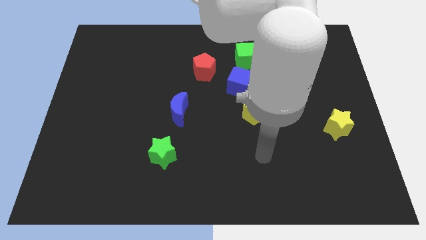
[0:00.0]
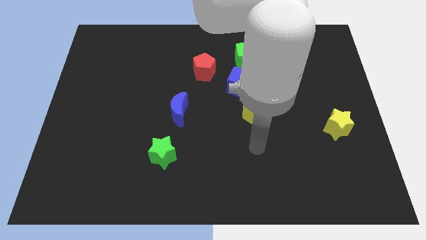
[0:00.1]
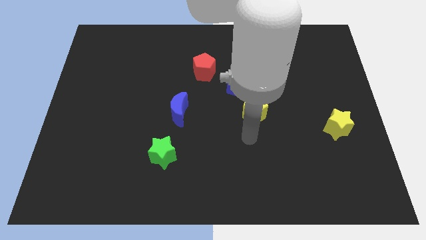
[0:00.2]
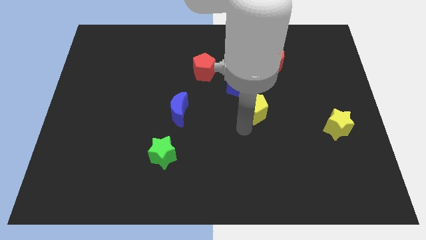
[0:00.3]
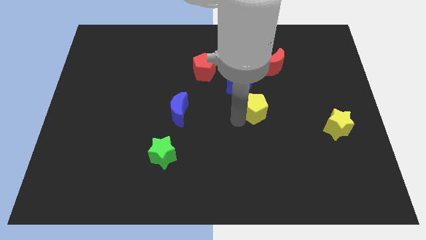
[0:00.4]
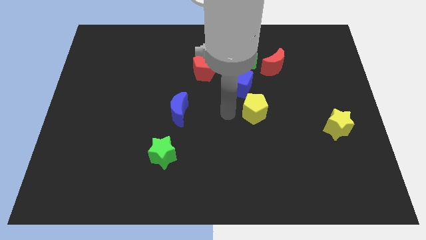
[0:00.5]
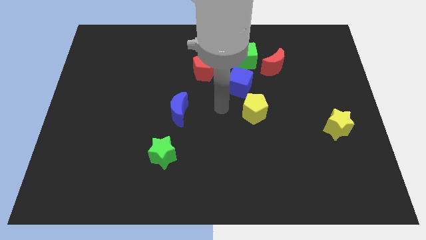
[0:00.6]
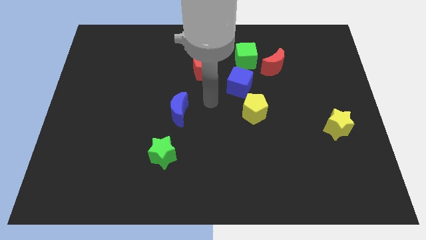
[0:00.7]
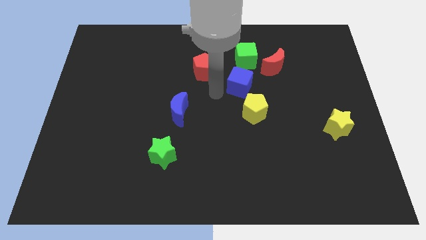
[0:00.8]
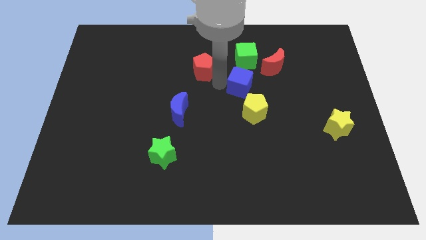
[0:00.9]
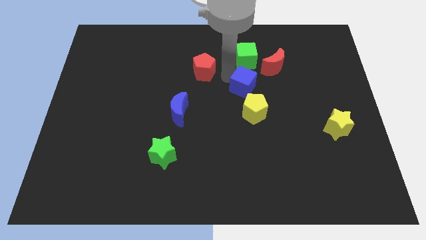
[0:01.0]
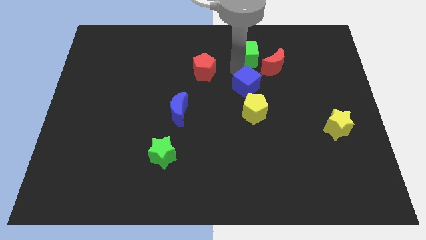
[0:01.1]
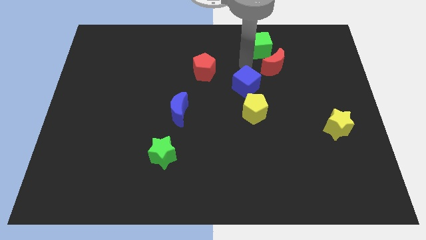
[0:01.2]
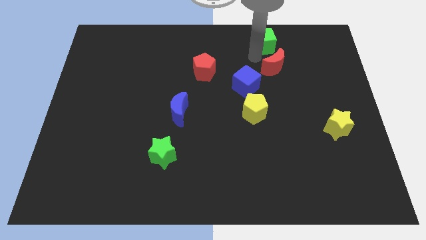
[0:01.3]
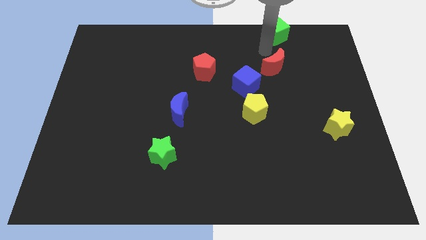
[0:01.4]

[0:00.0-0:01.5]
separate the red moon from the green cube

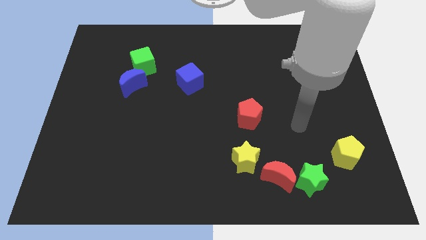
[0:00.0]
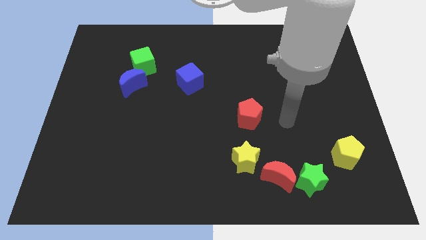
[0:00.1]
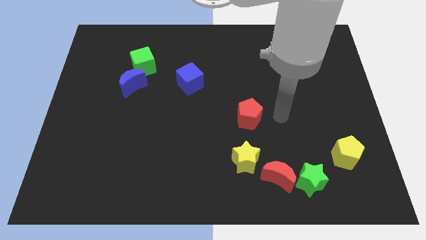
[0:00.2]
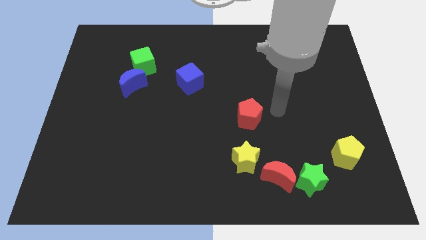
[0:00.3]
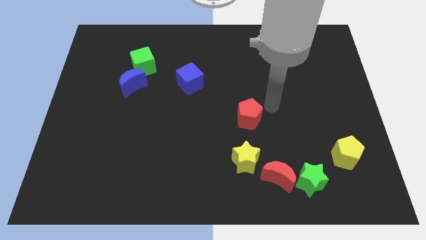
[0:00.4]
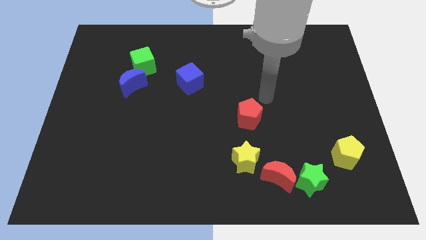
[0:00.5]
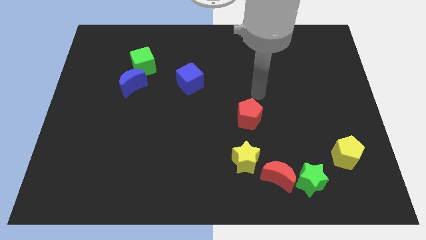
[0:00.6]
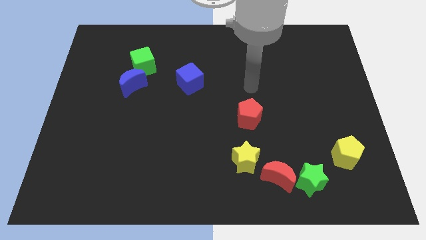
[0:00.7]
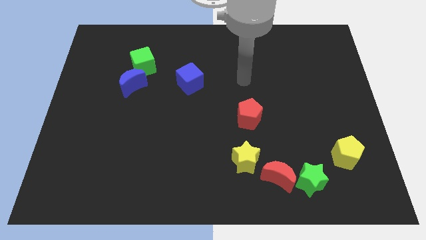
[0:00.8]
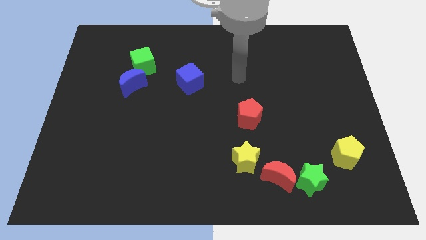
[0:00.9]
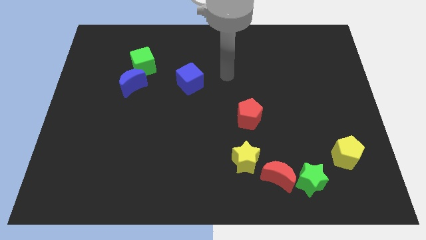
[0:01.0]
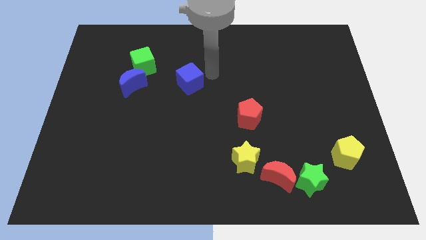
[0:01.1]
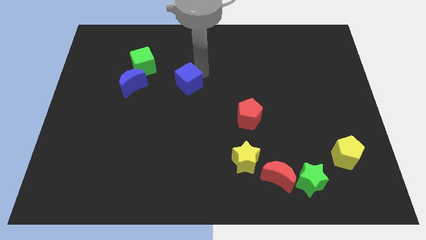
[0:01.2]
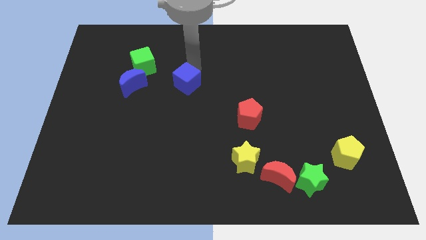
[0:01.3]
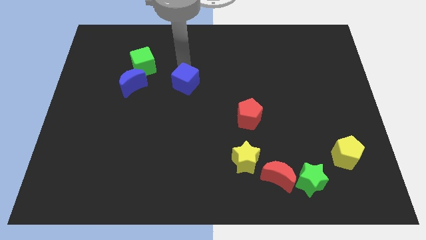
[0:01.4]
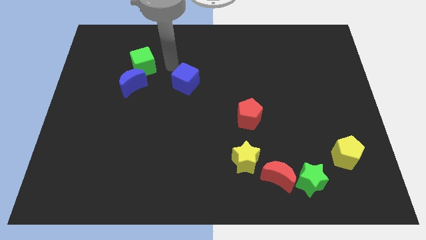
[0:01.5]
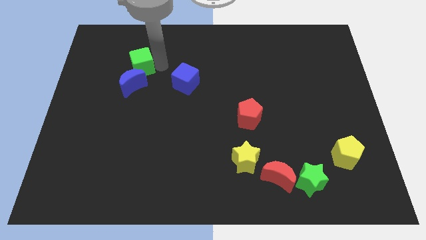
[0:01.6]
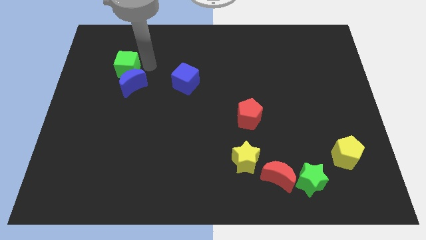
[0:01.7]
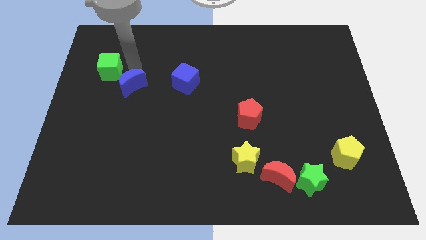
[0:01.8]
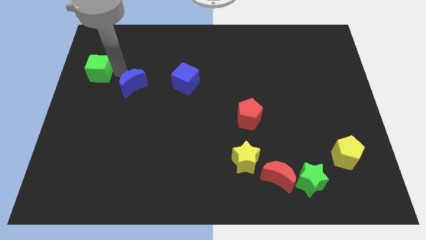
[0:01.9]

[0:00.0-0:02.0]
pull the blue moon apart from the green cube

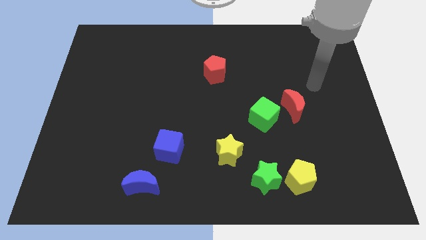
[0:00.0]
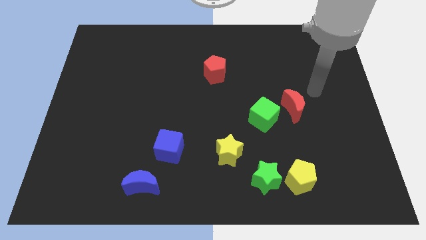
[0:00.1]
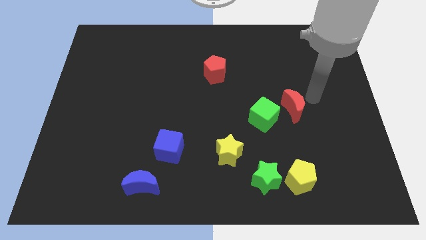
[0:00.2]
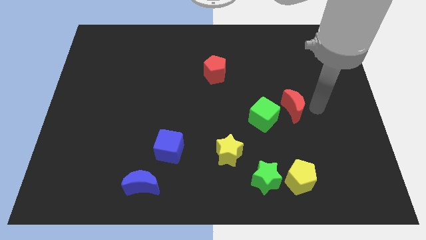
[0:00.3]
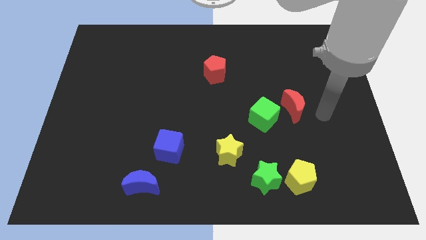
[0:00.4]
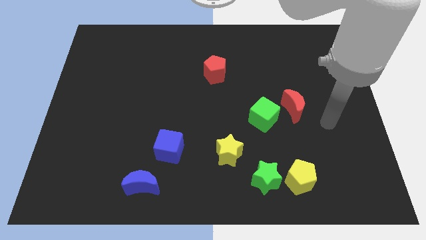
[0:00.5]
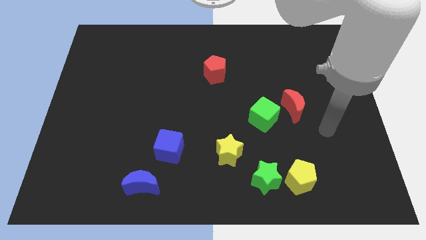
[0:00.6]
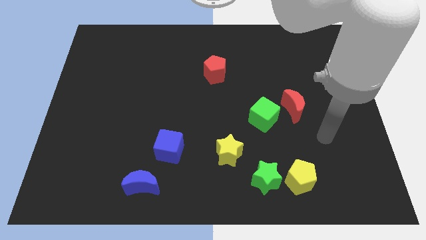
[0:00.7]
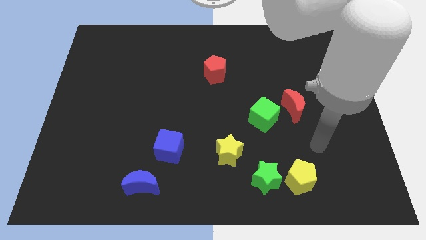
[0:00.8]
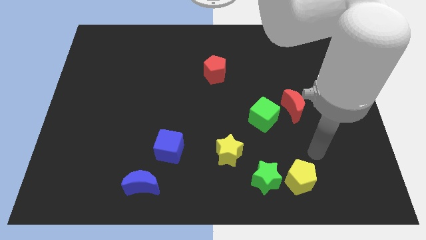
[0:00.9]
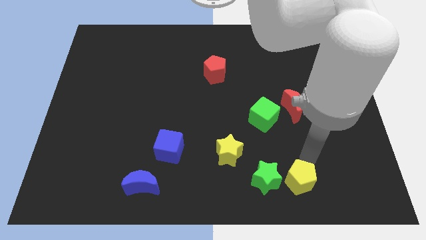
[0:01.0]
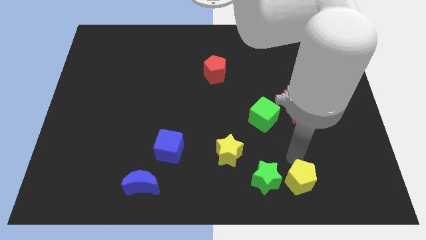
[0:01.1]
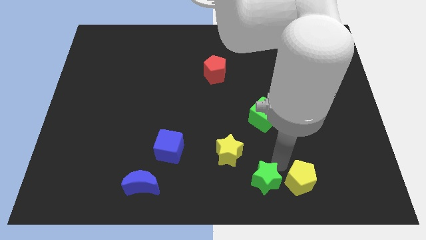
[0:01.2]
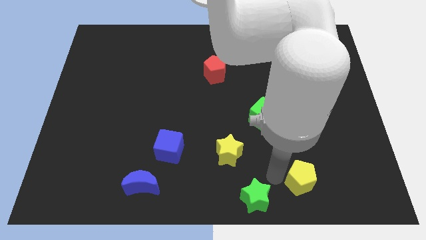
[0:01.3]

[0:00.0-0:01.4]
move the yellow pentagon away from the green star

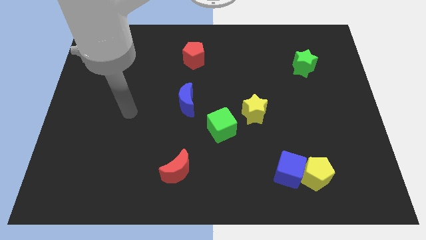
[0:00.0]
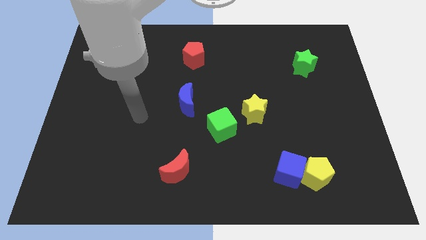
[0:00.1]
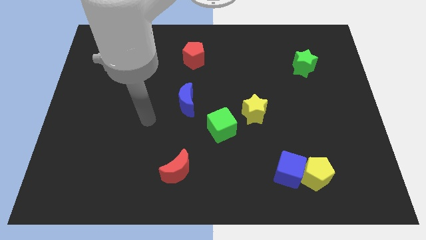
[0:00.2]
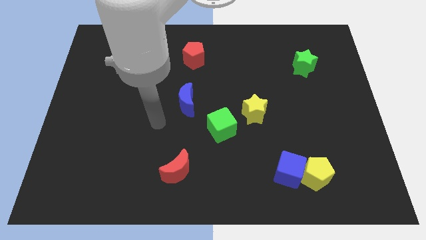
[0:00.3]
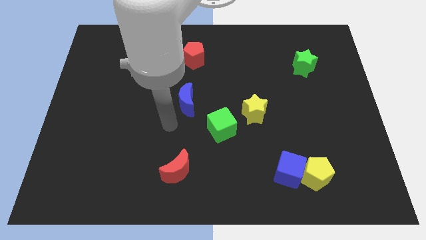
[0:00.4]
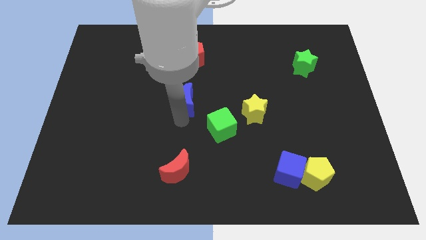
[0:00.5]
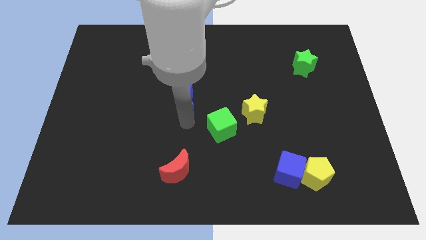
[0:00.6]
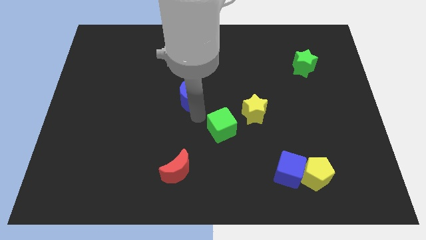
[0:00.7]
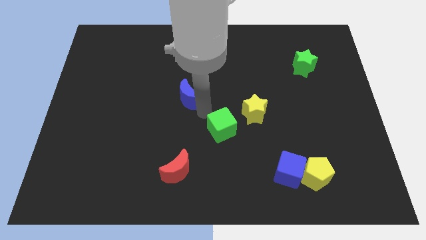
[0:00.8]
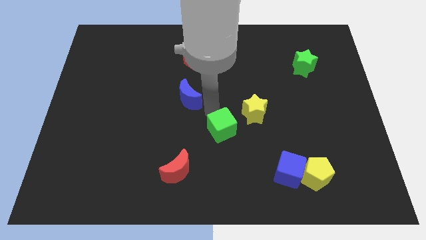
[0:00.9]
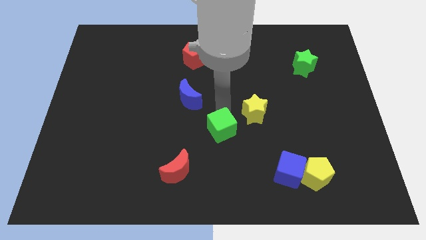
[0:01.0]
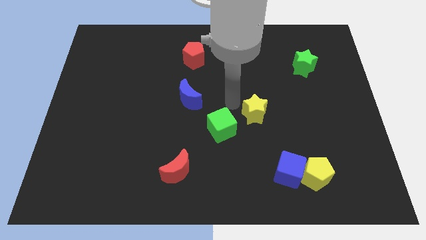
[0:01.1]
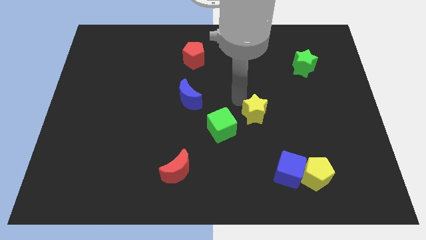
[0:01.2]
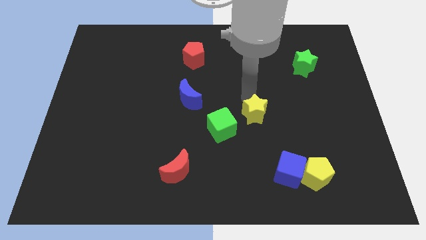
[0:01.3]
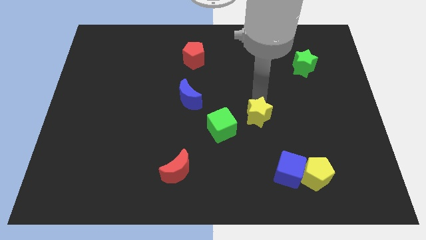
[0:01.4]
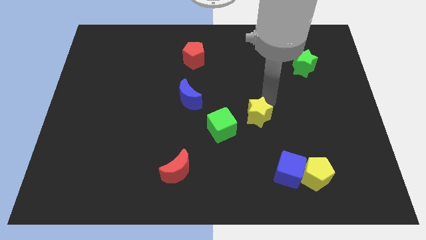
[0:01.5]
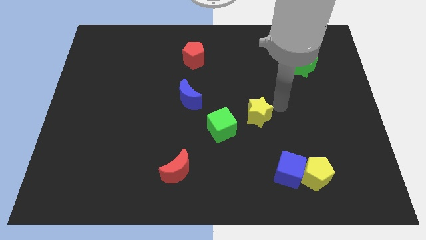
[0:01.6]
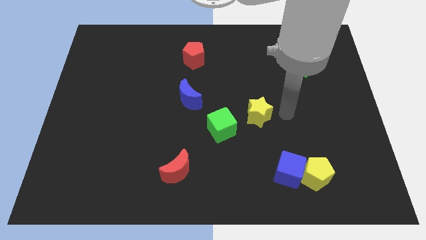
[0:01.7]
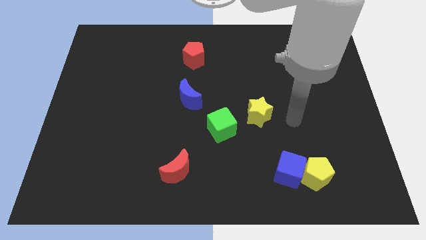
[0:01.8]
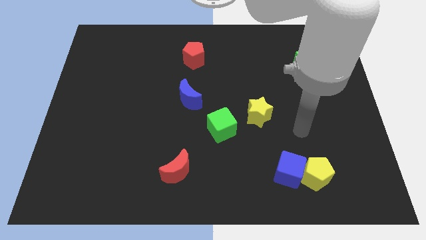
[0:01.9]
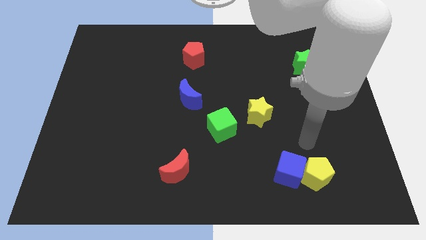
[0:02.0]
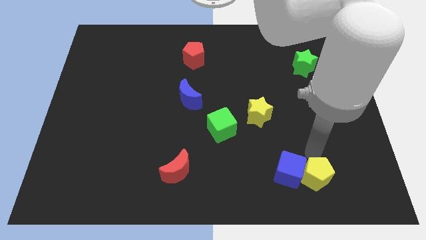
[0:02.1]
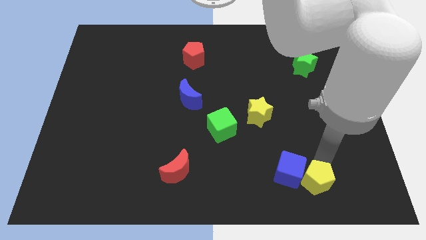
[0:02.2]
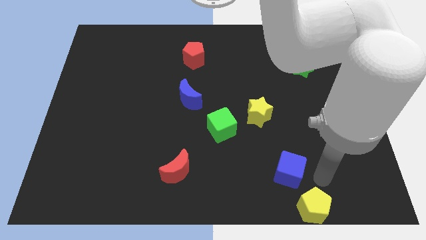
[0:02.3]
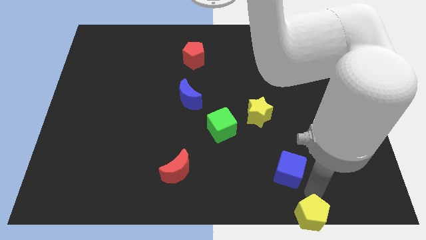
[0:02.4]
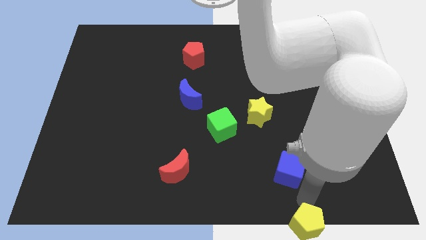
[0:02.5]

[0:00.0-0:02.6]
pull the blue cube apart from the yellow pentagon

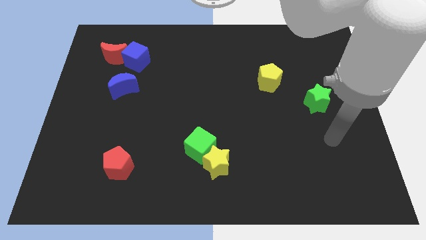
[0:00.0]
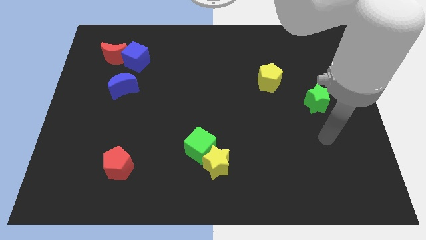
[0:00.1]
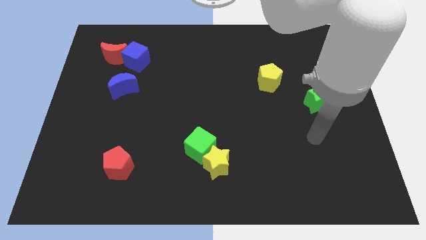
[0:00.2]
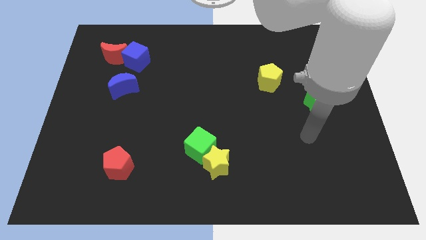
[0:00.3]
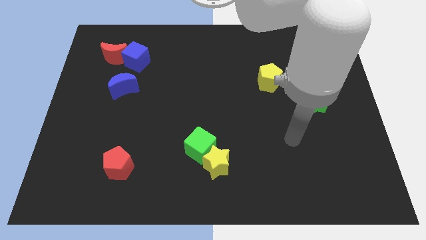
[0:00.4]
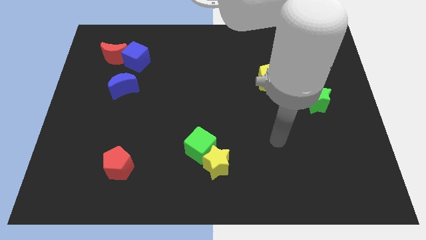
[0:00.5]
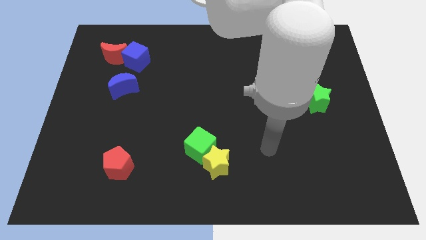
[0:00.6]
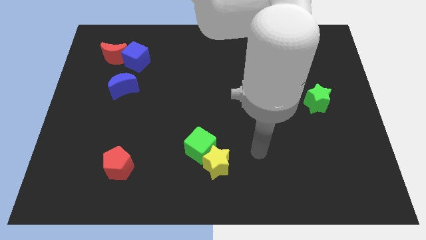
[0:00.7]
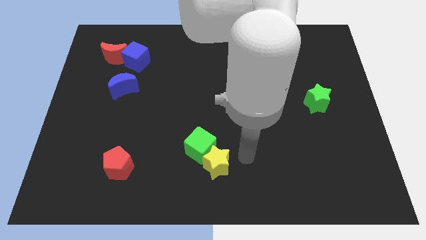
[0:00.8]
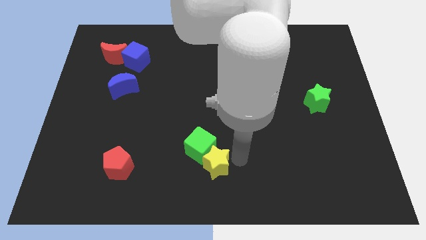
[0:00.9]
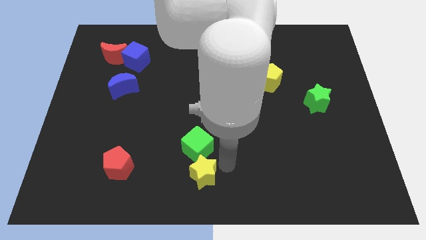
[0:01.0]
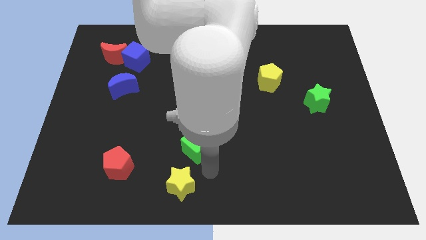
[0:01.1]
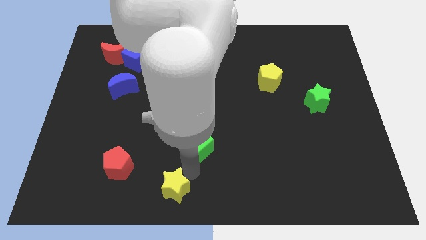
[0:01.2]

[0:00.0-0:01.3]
move the green cube away from the yellow star

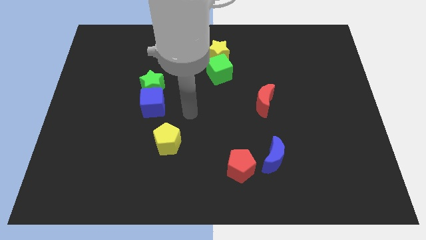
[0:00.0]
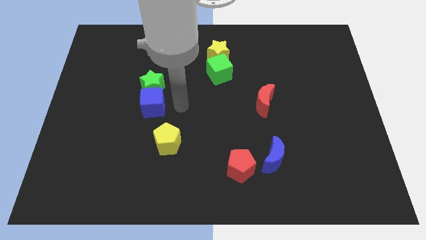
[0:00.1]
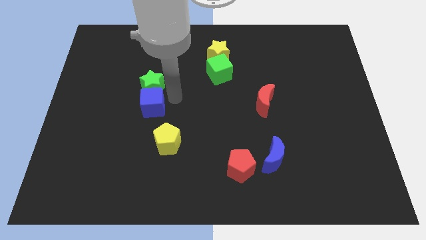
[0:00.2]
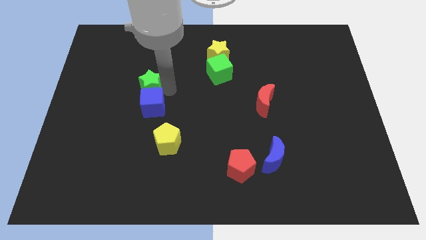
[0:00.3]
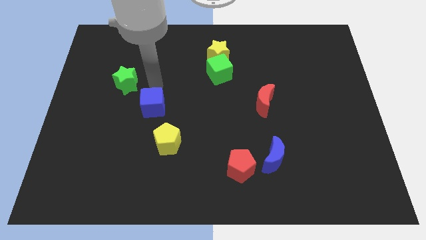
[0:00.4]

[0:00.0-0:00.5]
separate the blue cube from the green star
